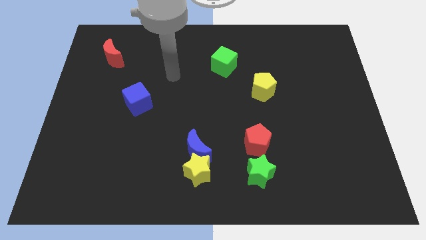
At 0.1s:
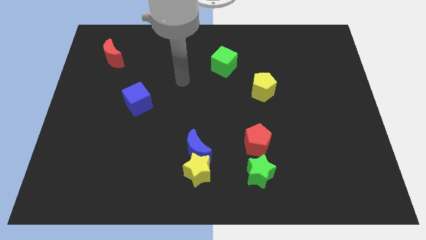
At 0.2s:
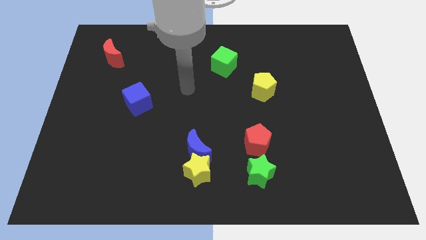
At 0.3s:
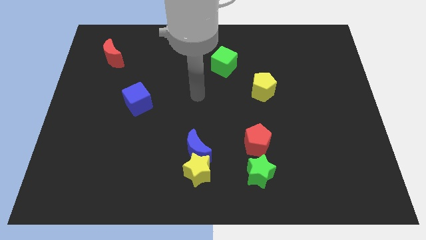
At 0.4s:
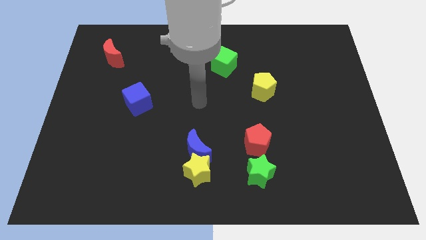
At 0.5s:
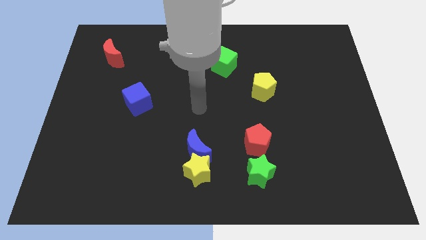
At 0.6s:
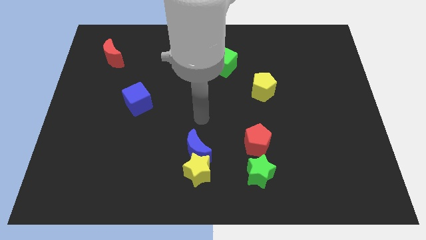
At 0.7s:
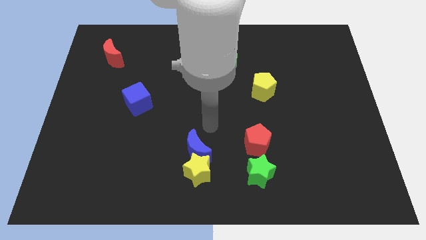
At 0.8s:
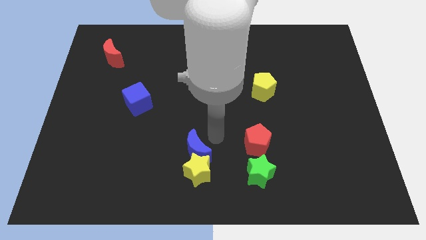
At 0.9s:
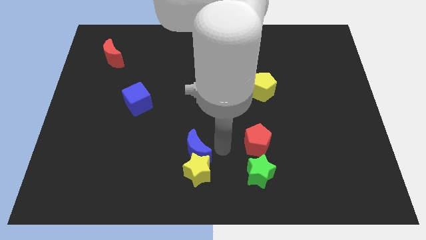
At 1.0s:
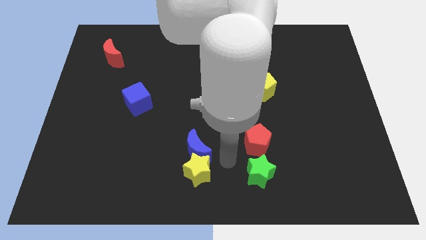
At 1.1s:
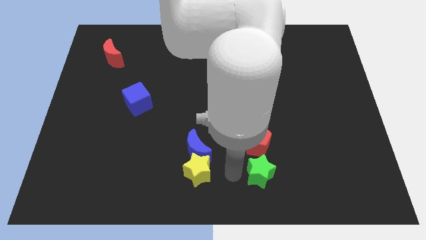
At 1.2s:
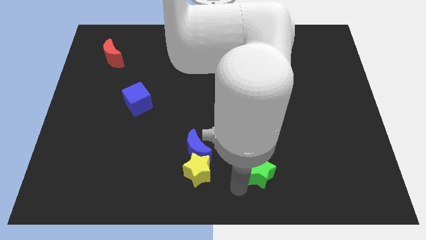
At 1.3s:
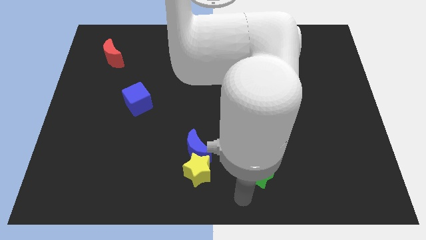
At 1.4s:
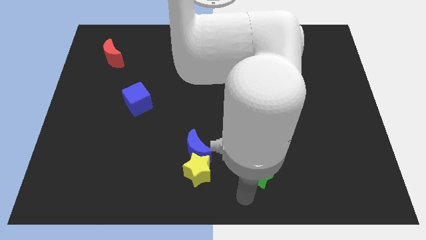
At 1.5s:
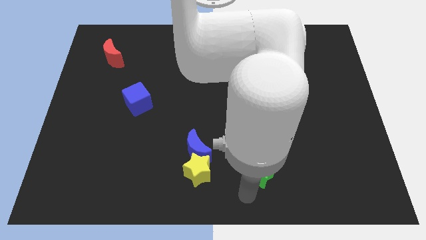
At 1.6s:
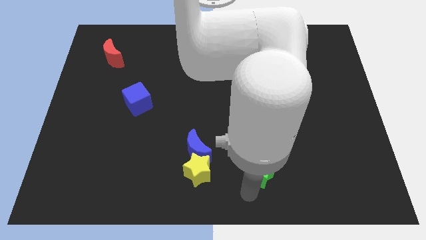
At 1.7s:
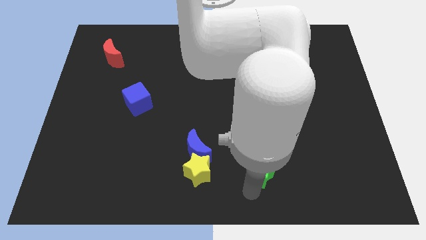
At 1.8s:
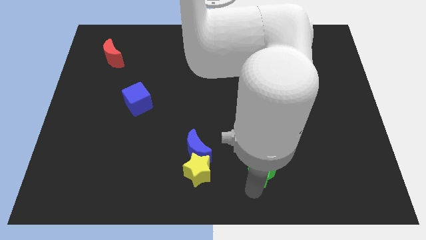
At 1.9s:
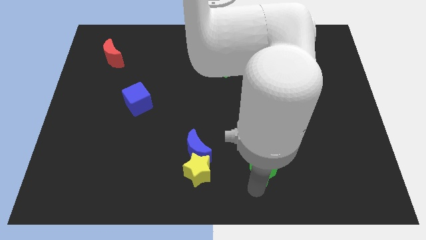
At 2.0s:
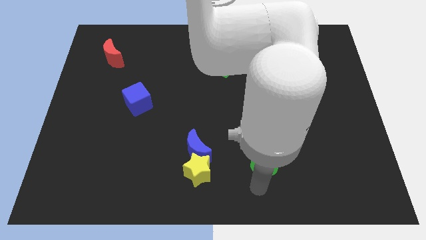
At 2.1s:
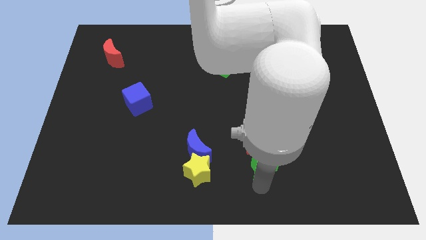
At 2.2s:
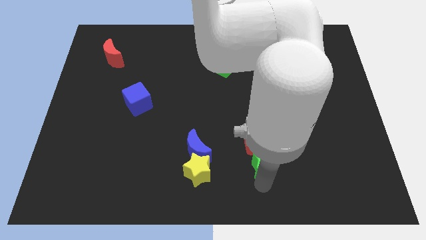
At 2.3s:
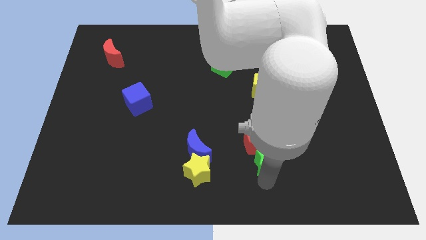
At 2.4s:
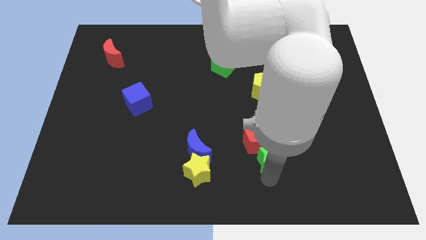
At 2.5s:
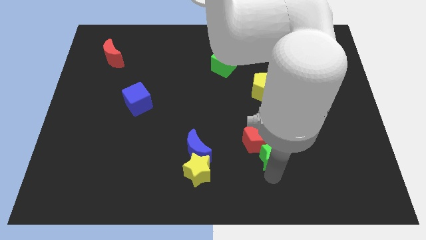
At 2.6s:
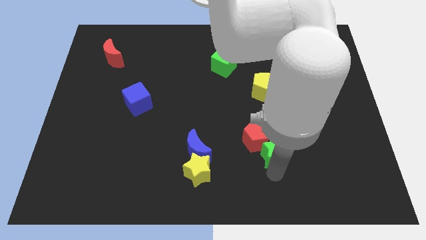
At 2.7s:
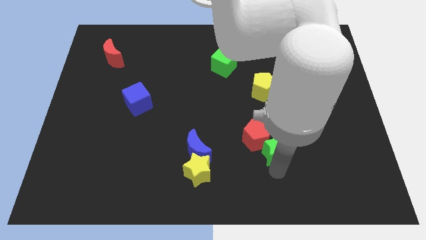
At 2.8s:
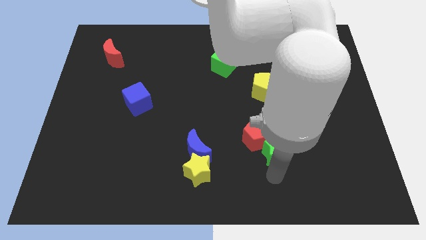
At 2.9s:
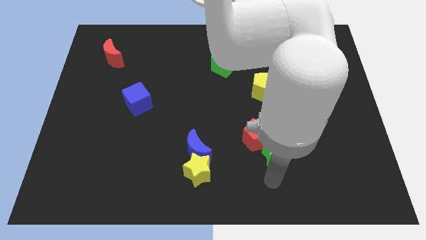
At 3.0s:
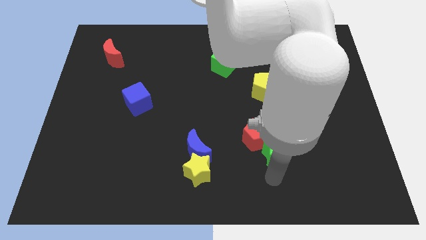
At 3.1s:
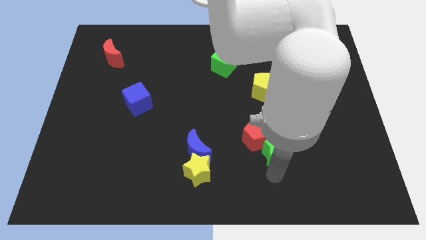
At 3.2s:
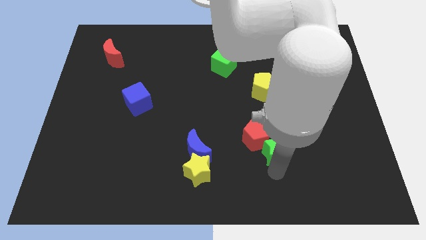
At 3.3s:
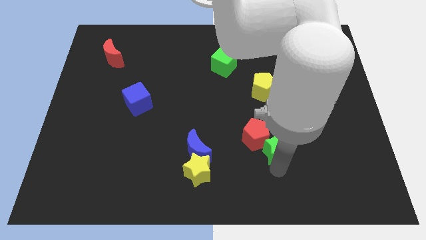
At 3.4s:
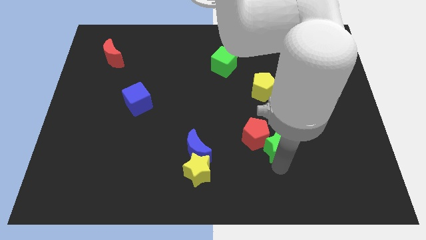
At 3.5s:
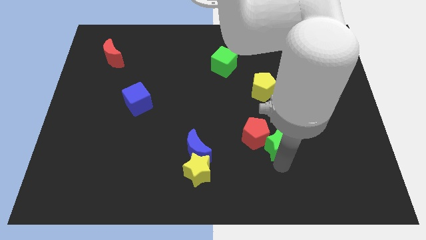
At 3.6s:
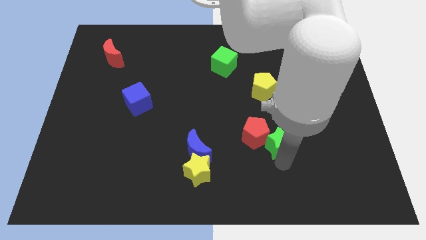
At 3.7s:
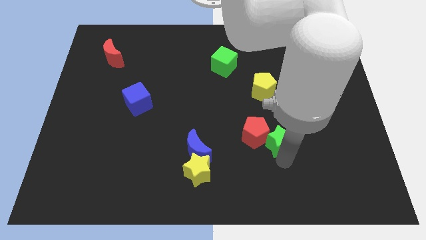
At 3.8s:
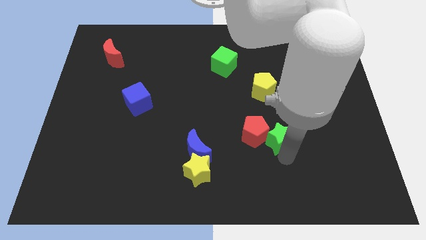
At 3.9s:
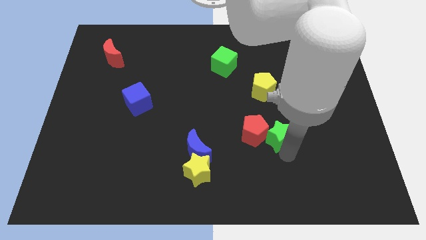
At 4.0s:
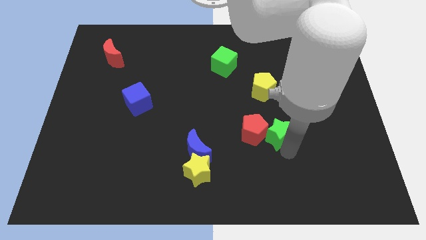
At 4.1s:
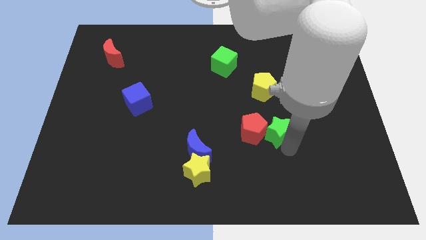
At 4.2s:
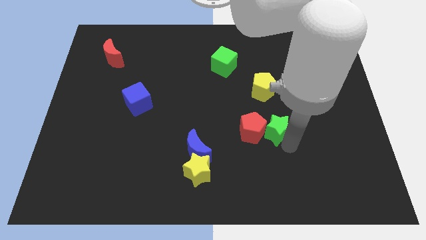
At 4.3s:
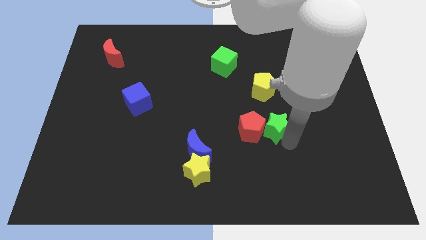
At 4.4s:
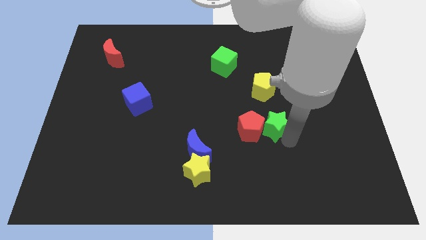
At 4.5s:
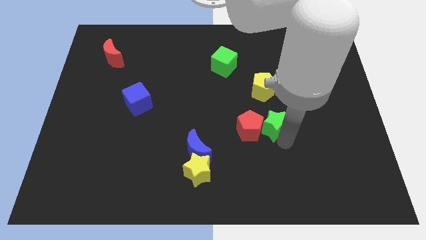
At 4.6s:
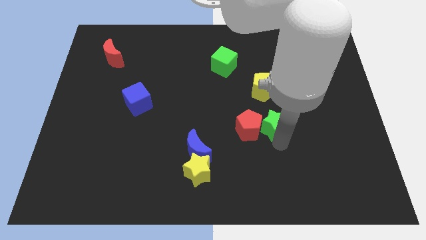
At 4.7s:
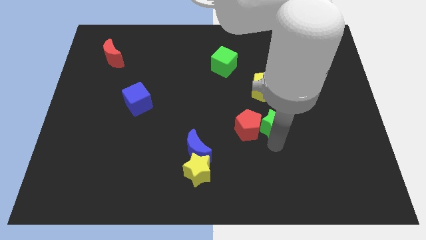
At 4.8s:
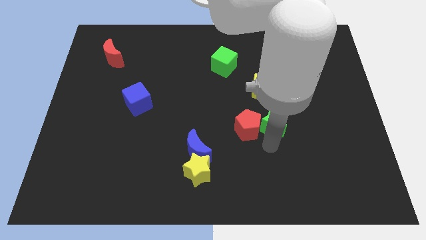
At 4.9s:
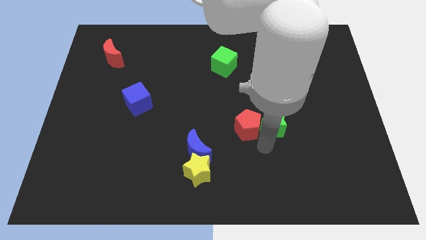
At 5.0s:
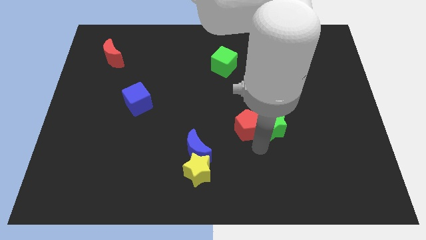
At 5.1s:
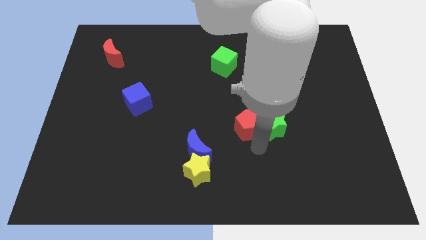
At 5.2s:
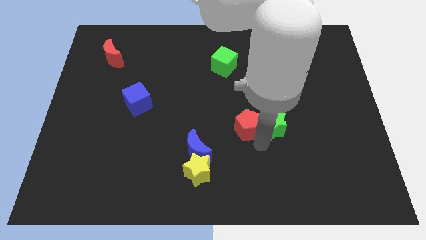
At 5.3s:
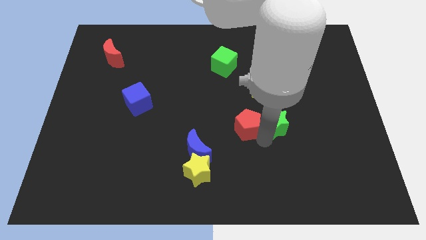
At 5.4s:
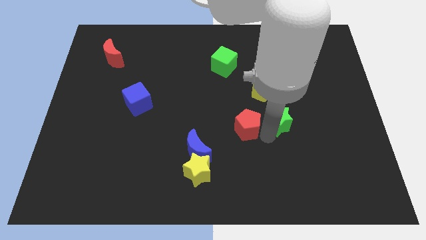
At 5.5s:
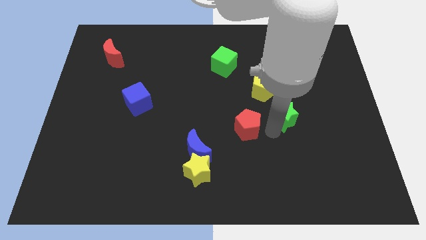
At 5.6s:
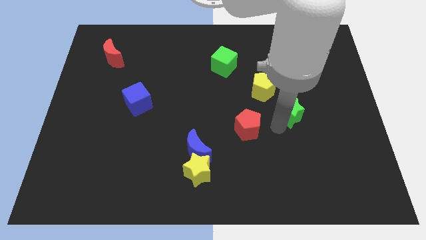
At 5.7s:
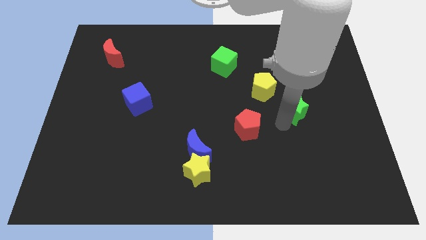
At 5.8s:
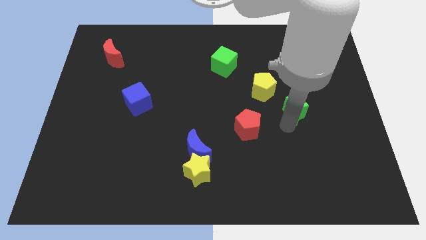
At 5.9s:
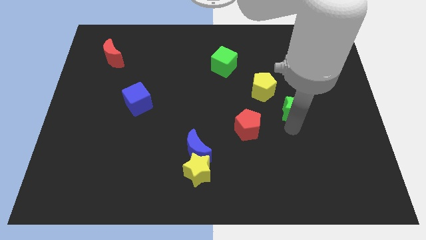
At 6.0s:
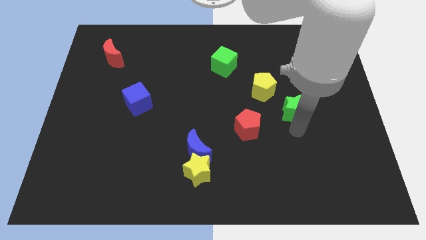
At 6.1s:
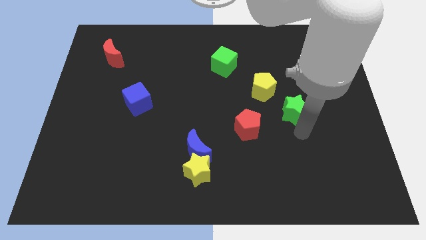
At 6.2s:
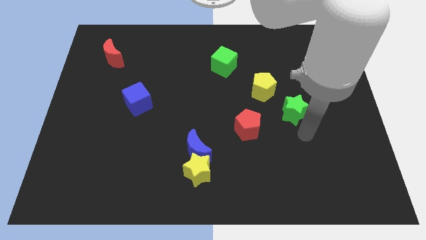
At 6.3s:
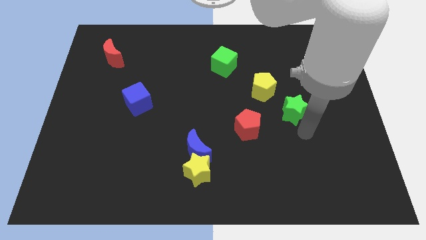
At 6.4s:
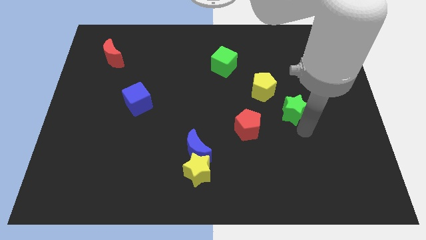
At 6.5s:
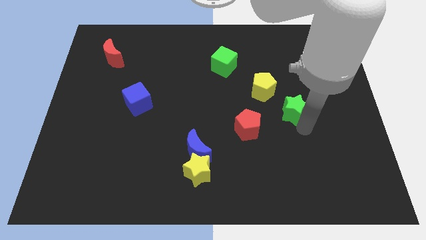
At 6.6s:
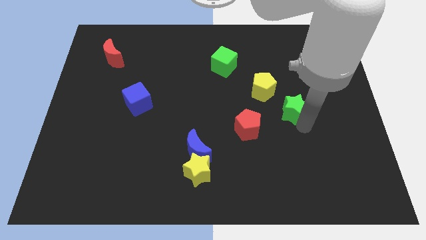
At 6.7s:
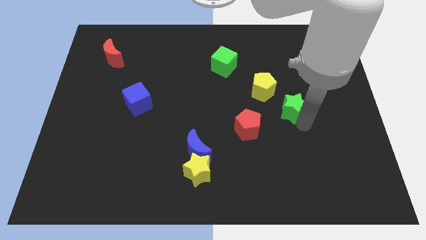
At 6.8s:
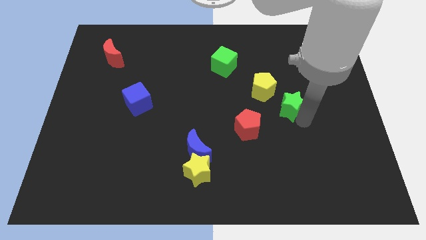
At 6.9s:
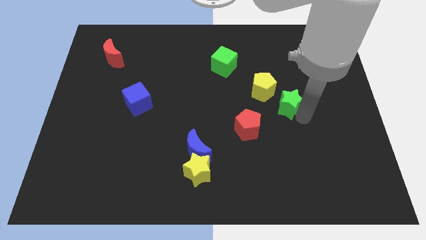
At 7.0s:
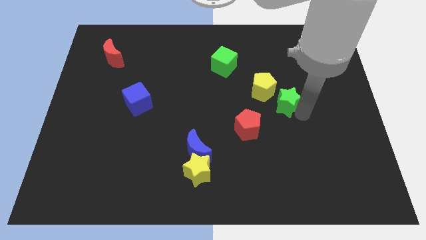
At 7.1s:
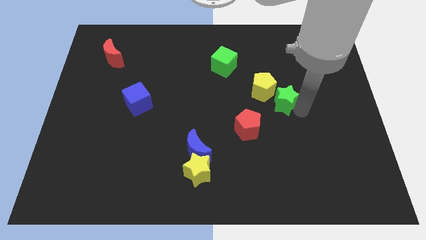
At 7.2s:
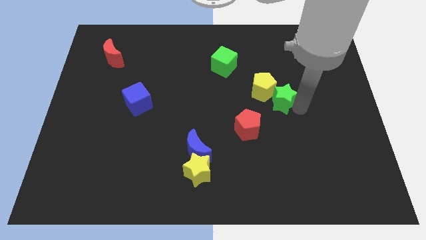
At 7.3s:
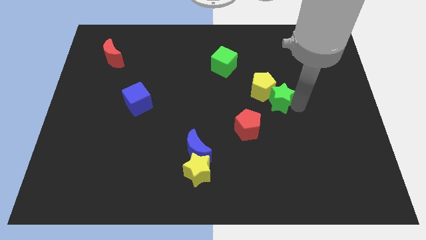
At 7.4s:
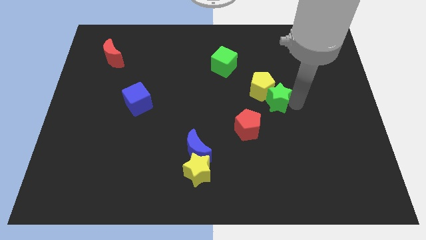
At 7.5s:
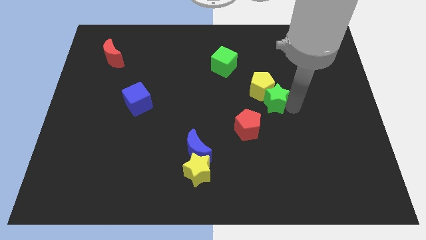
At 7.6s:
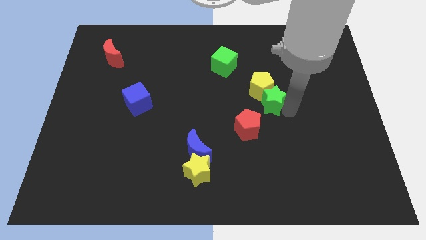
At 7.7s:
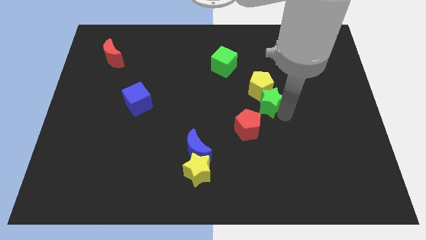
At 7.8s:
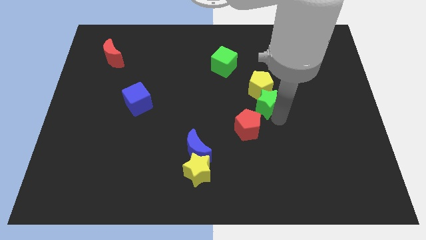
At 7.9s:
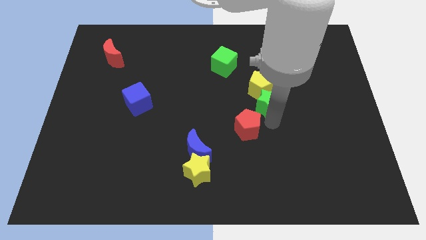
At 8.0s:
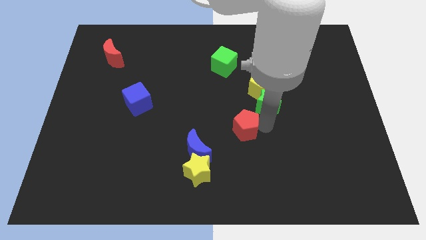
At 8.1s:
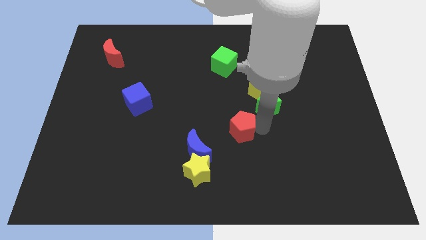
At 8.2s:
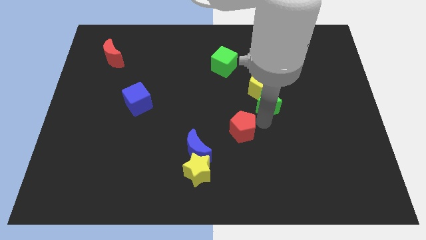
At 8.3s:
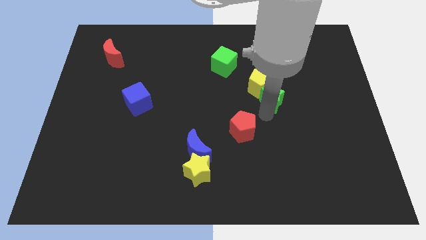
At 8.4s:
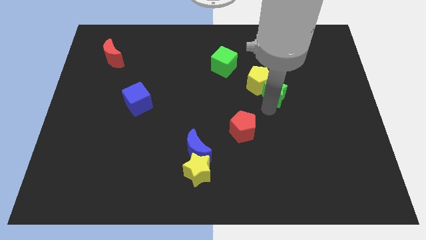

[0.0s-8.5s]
push the green star upwards
